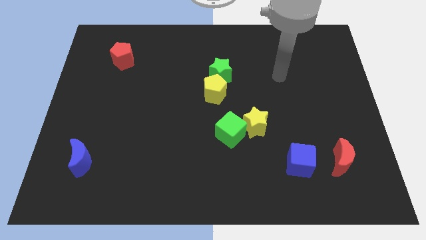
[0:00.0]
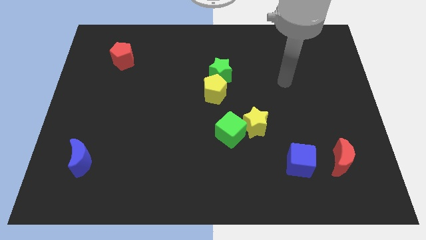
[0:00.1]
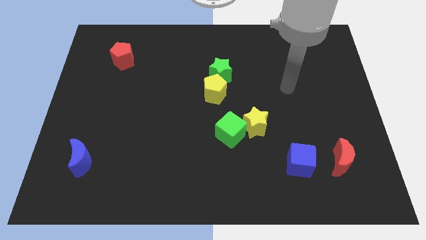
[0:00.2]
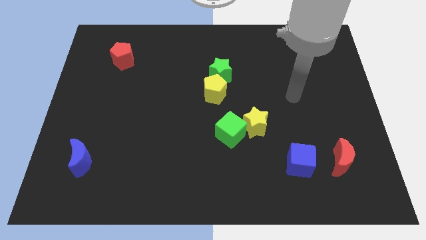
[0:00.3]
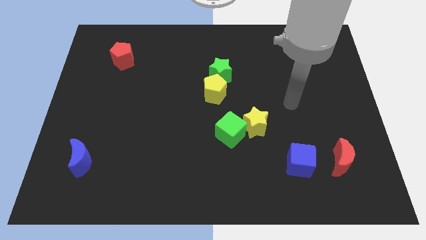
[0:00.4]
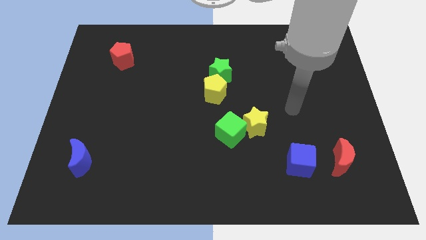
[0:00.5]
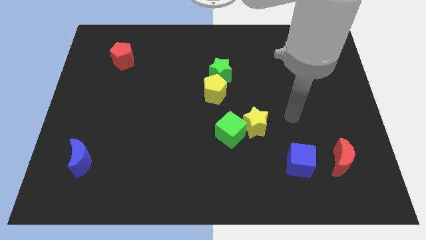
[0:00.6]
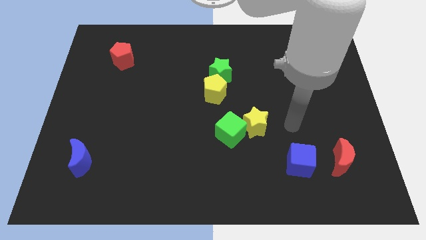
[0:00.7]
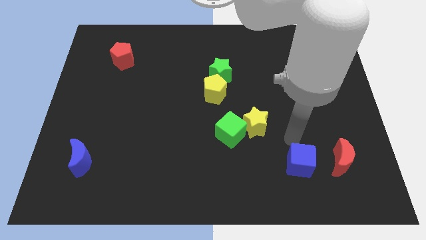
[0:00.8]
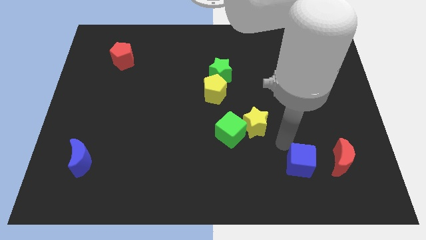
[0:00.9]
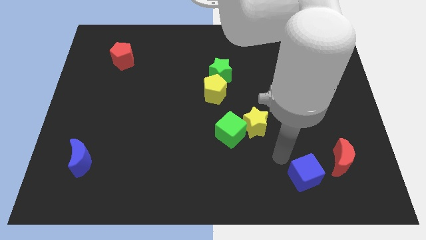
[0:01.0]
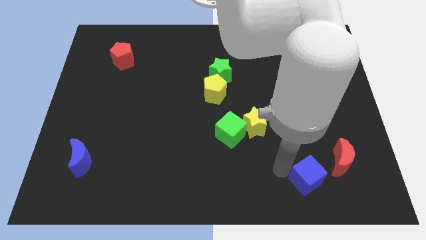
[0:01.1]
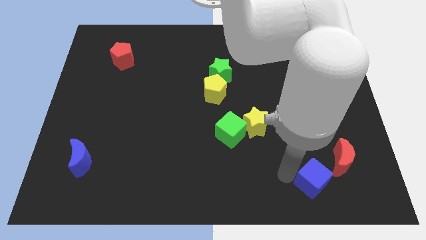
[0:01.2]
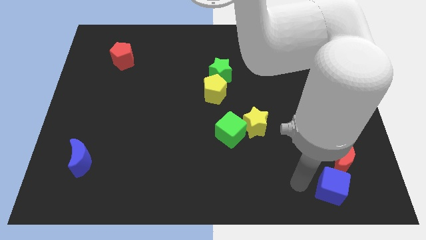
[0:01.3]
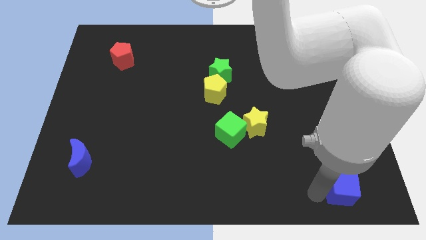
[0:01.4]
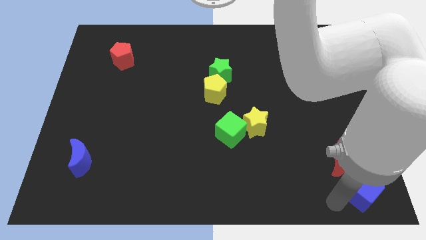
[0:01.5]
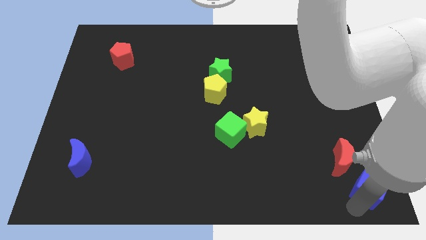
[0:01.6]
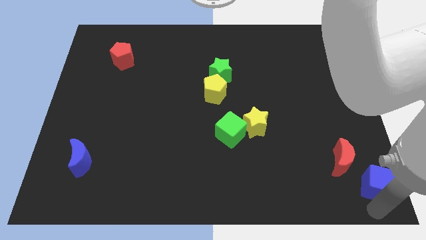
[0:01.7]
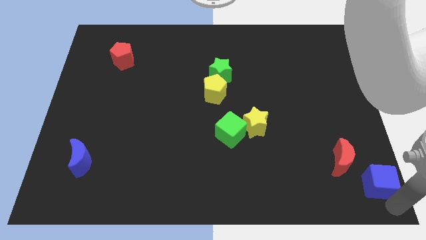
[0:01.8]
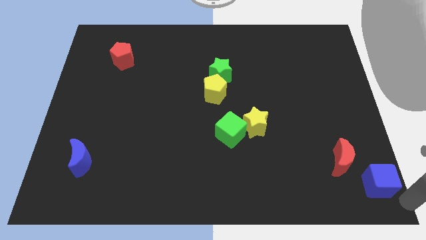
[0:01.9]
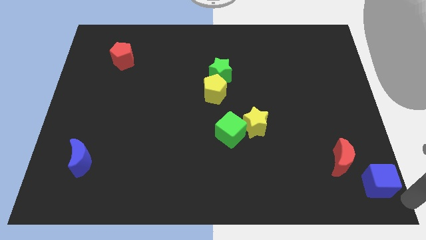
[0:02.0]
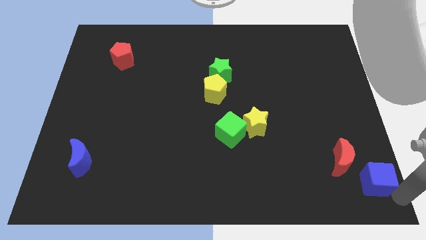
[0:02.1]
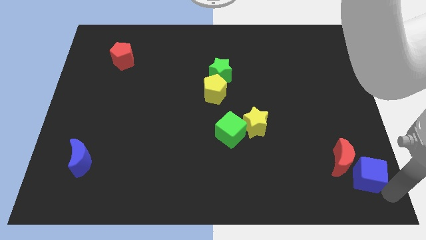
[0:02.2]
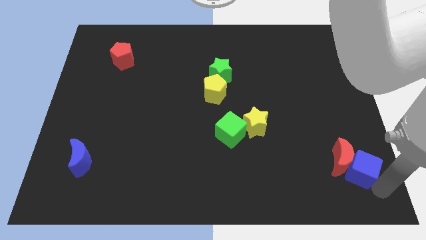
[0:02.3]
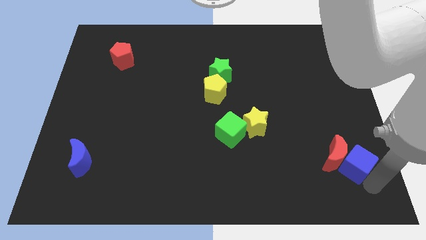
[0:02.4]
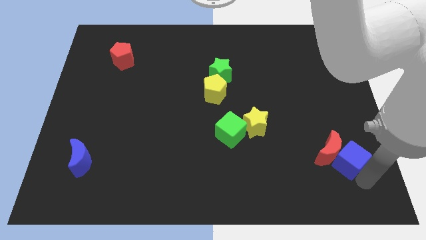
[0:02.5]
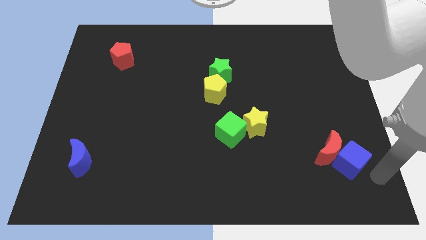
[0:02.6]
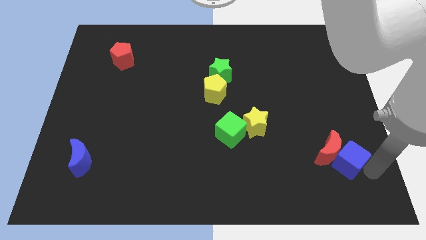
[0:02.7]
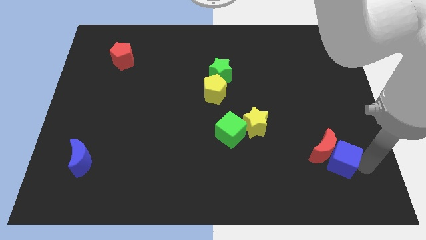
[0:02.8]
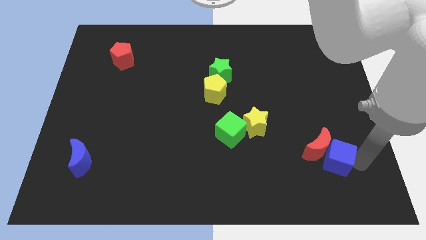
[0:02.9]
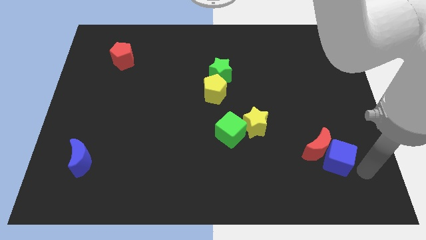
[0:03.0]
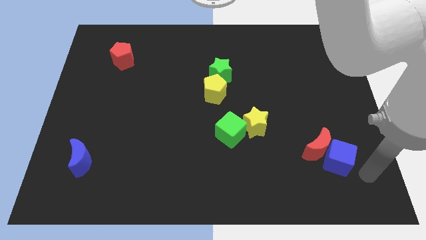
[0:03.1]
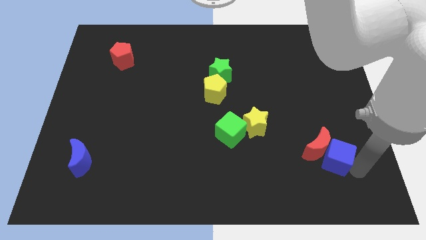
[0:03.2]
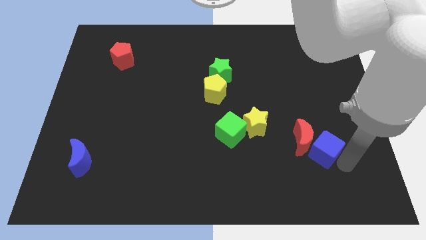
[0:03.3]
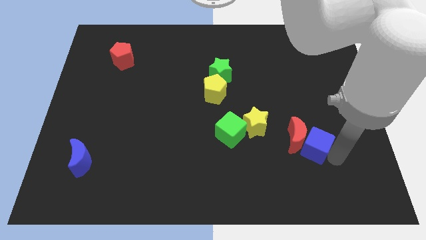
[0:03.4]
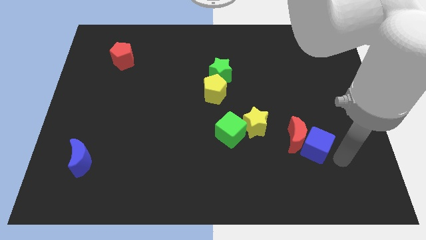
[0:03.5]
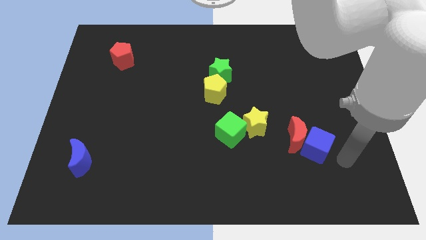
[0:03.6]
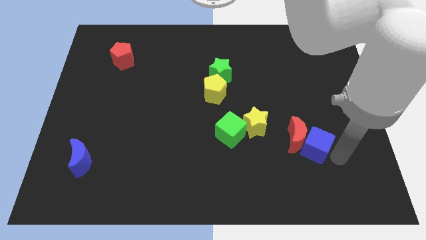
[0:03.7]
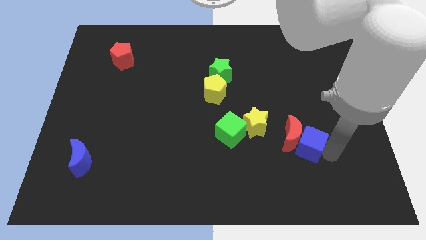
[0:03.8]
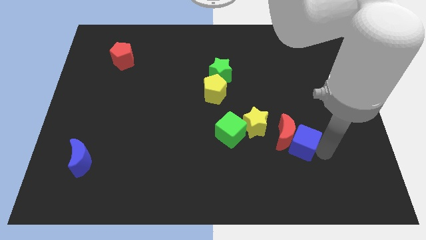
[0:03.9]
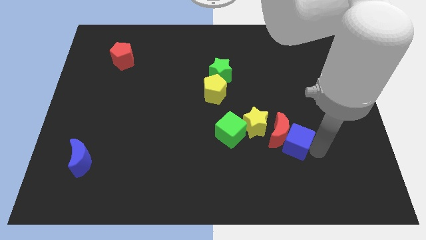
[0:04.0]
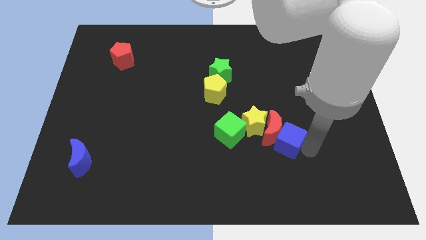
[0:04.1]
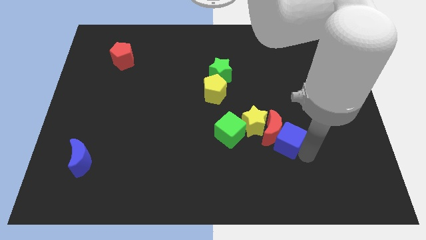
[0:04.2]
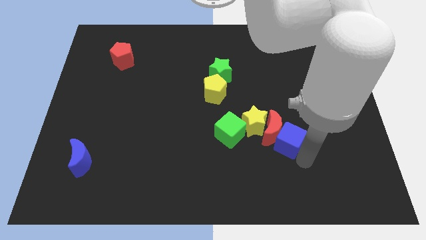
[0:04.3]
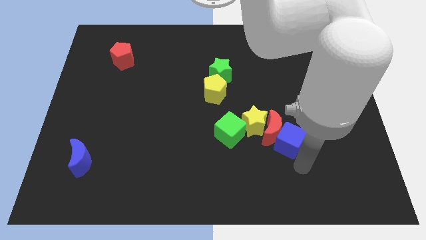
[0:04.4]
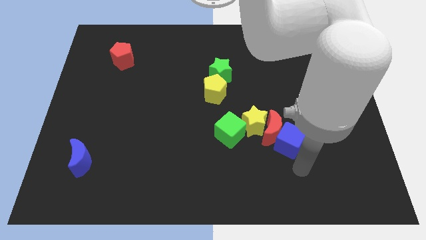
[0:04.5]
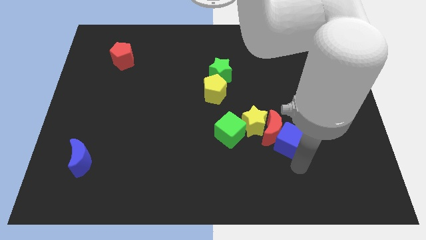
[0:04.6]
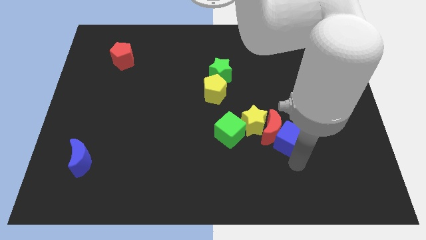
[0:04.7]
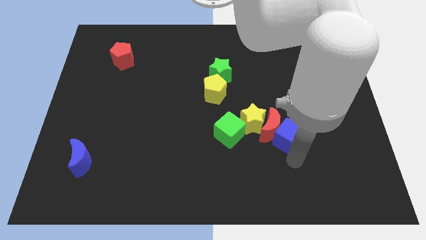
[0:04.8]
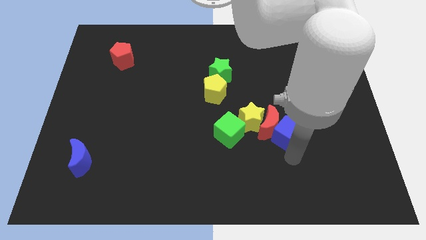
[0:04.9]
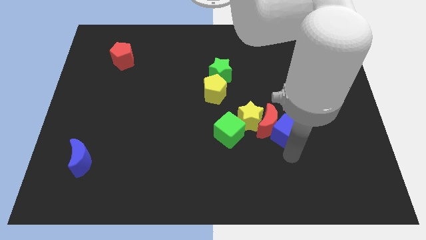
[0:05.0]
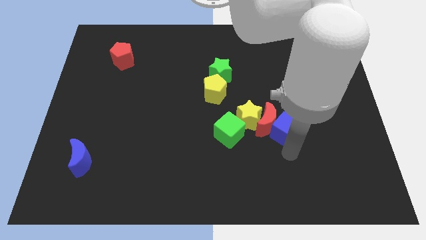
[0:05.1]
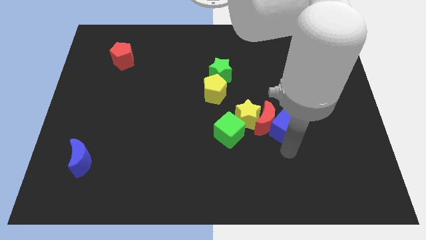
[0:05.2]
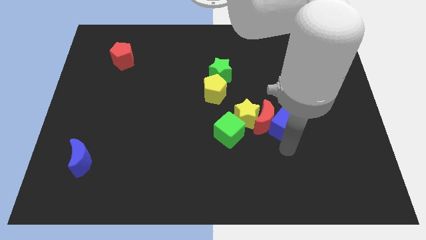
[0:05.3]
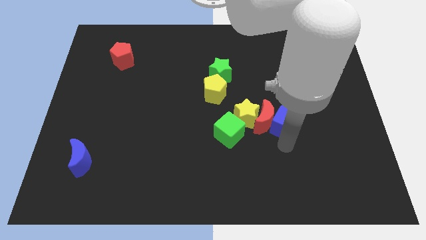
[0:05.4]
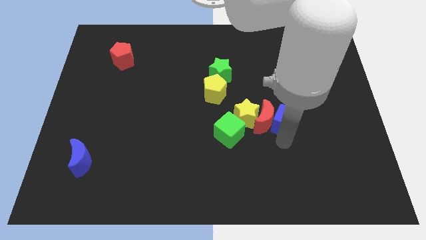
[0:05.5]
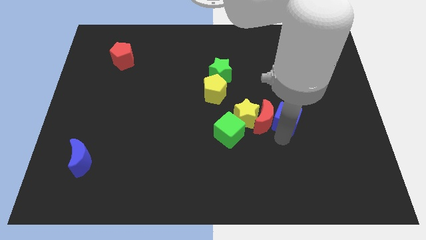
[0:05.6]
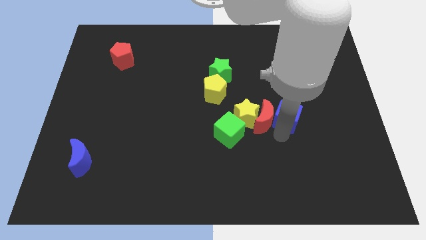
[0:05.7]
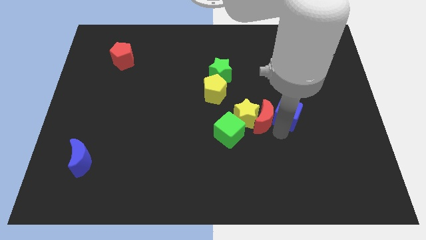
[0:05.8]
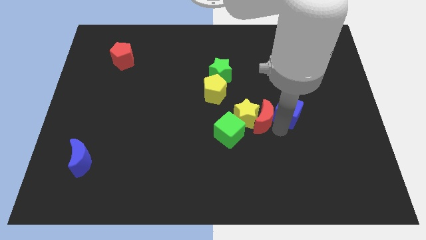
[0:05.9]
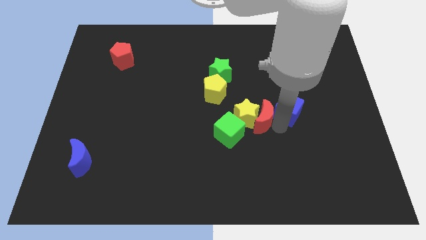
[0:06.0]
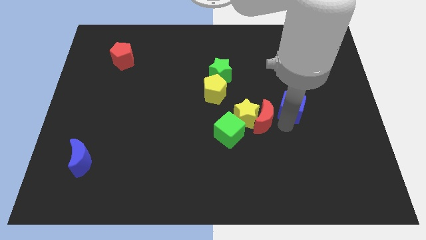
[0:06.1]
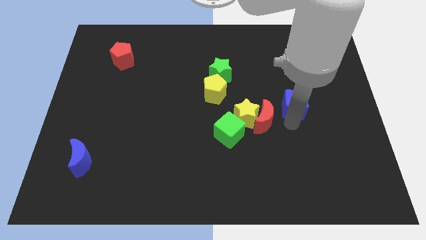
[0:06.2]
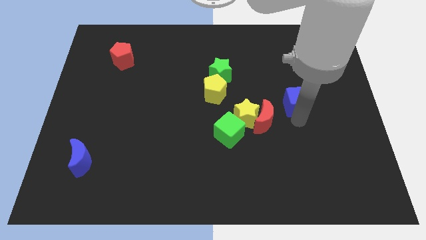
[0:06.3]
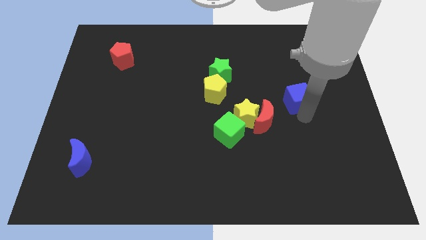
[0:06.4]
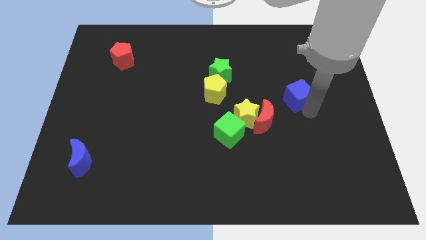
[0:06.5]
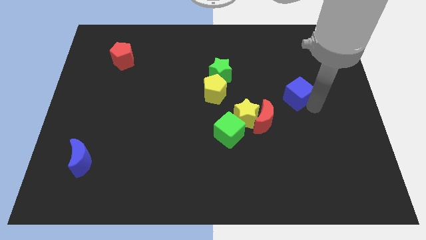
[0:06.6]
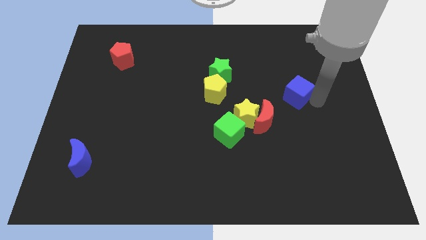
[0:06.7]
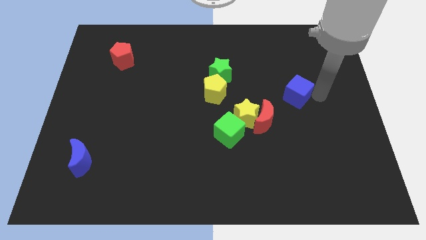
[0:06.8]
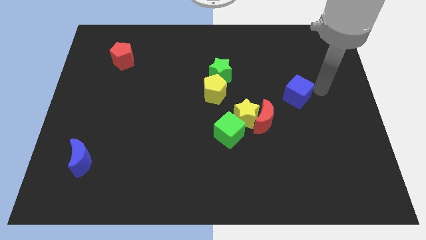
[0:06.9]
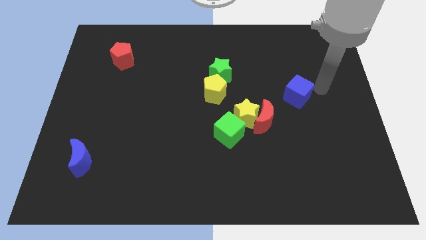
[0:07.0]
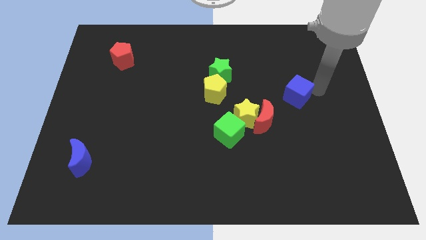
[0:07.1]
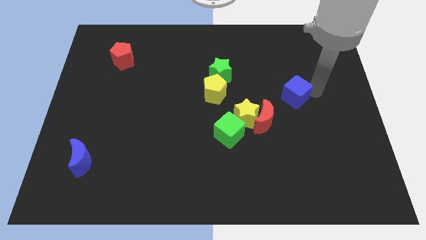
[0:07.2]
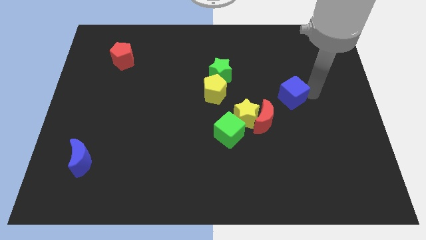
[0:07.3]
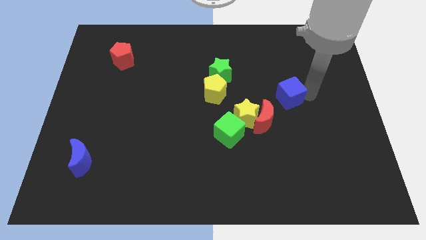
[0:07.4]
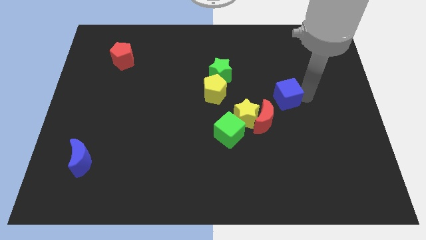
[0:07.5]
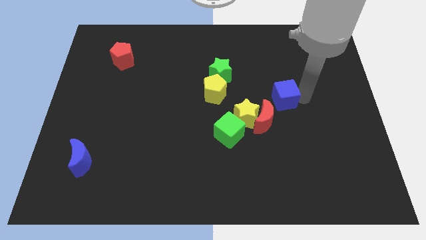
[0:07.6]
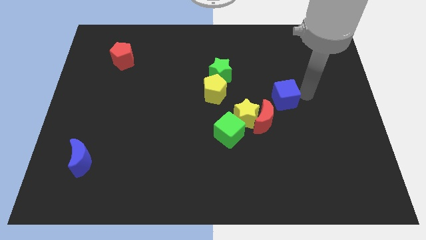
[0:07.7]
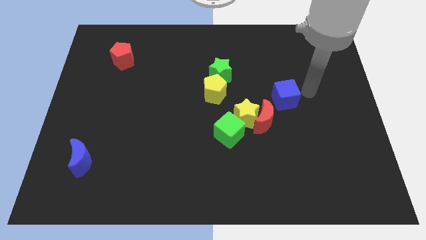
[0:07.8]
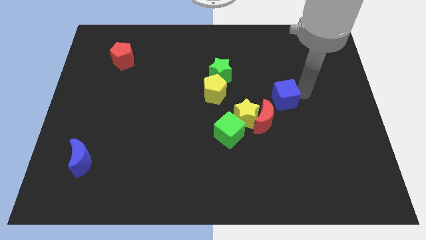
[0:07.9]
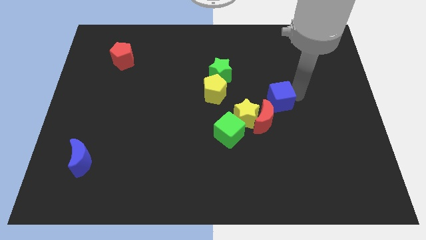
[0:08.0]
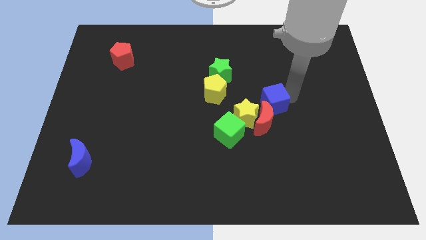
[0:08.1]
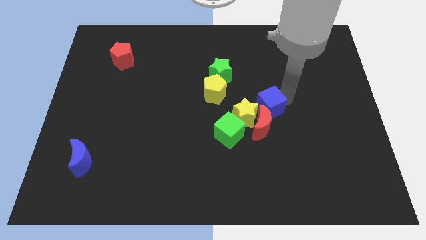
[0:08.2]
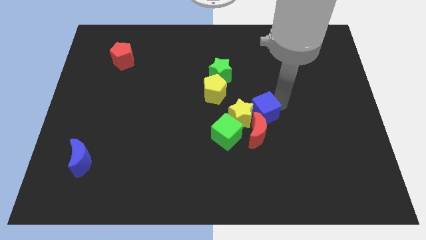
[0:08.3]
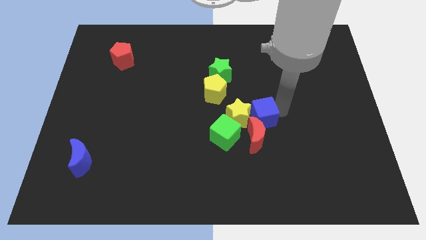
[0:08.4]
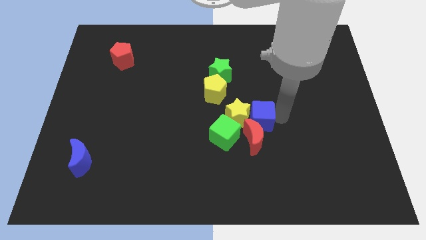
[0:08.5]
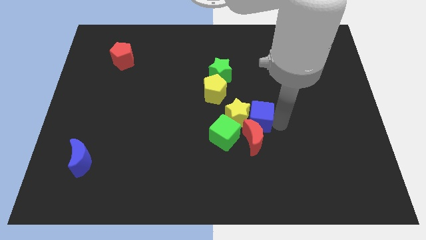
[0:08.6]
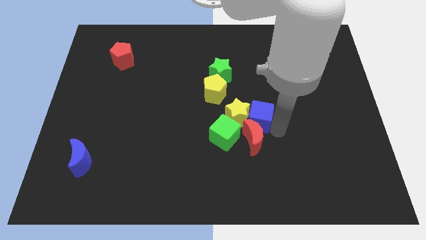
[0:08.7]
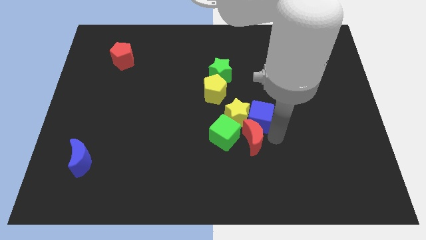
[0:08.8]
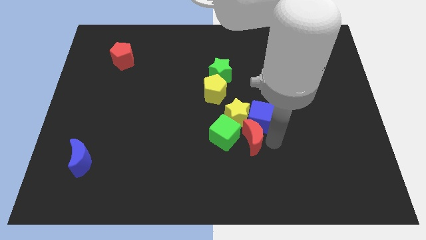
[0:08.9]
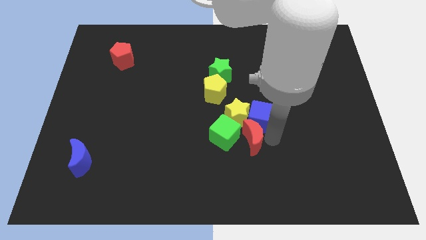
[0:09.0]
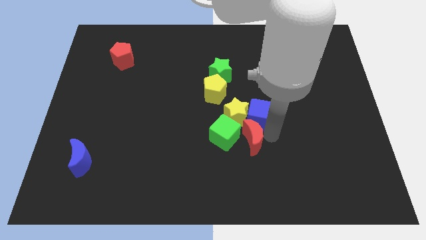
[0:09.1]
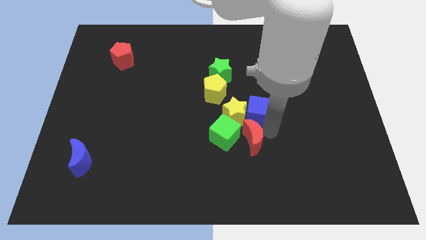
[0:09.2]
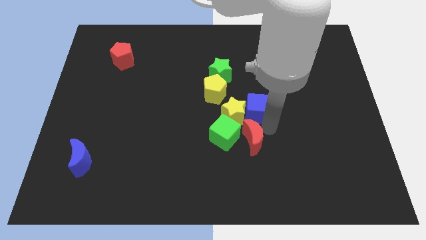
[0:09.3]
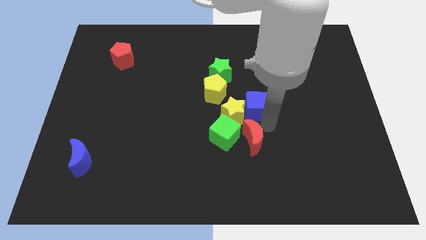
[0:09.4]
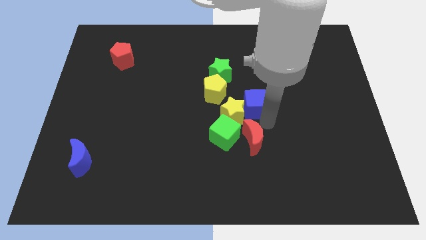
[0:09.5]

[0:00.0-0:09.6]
move the blue cube diagonally down and to the right of the green star
